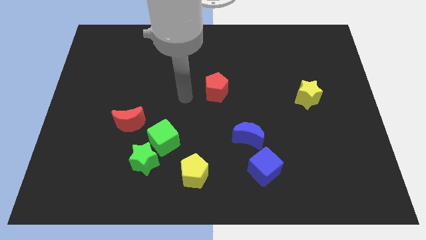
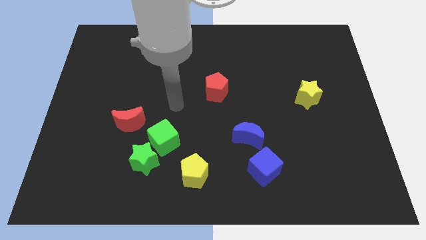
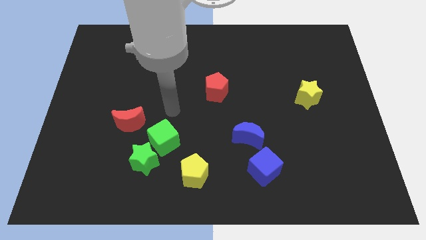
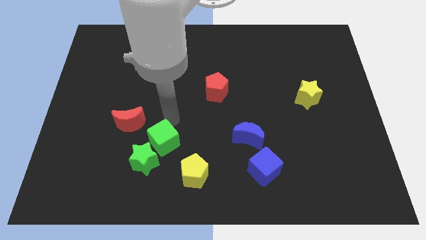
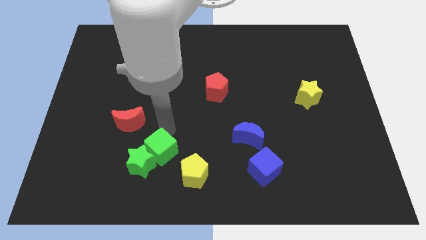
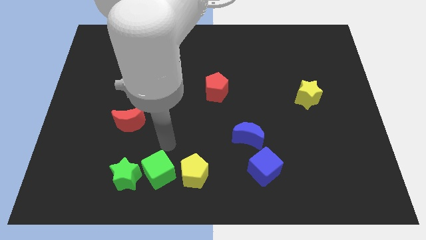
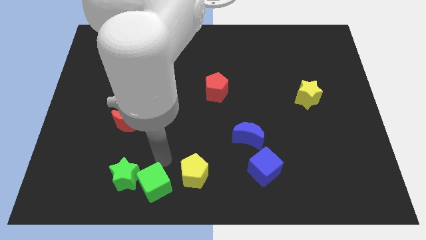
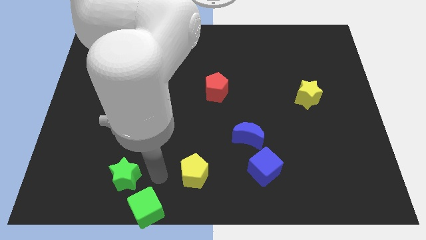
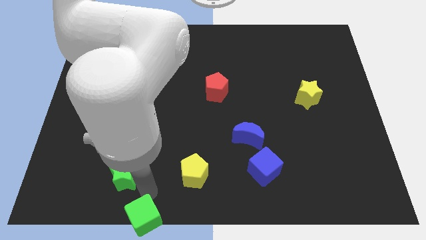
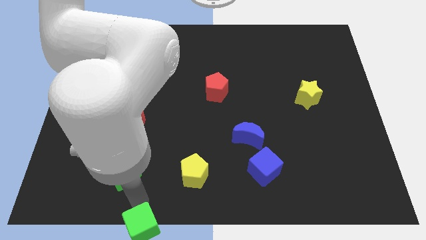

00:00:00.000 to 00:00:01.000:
separate the green star from the green cube

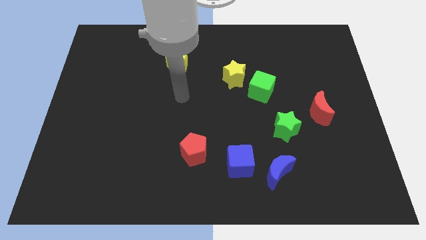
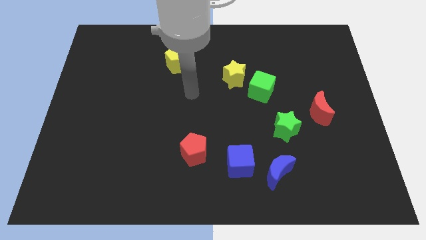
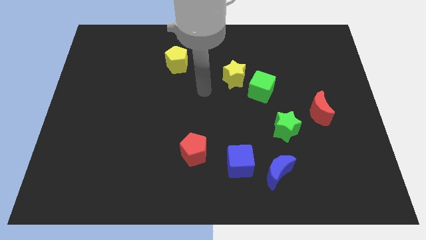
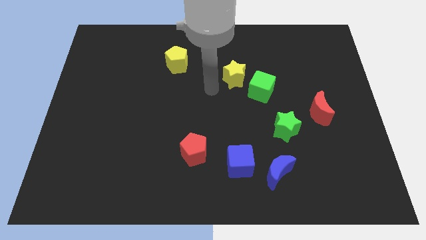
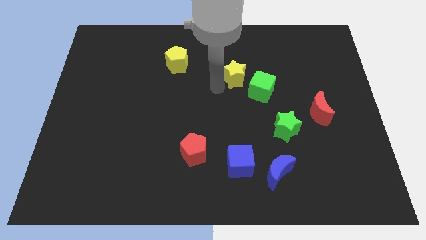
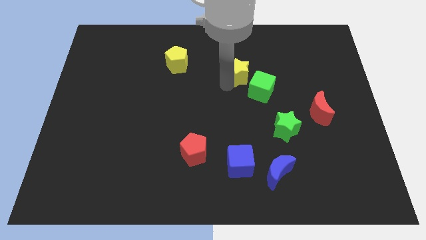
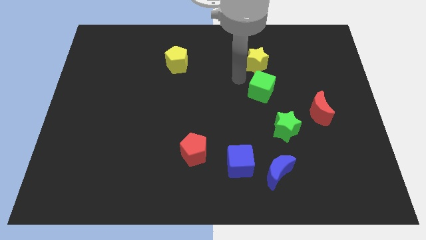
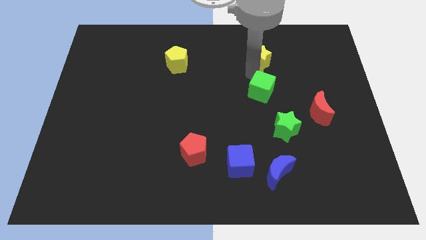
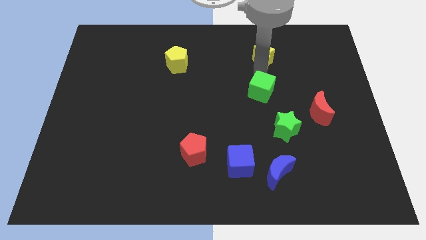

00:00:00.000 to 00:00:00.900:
separate the green cube from the yellow star

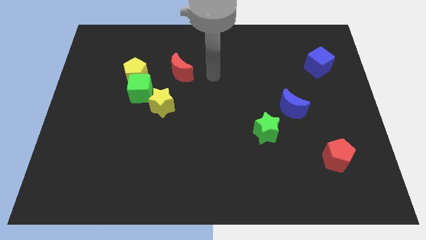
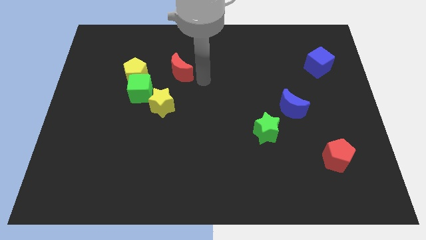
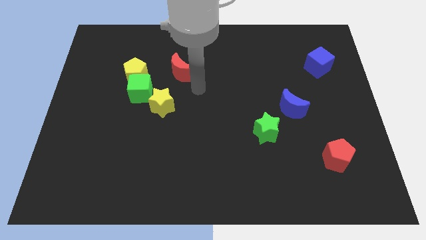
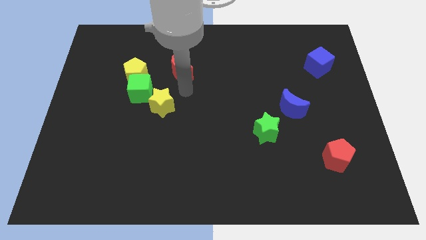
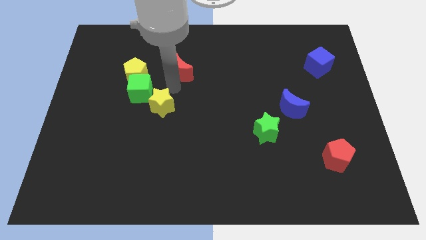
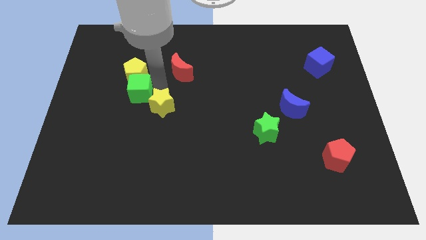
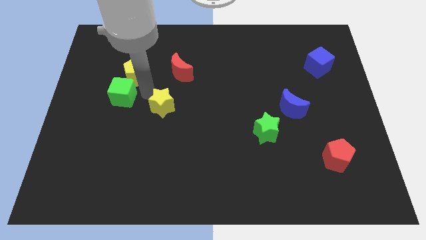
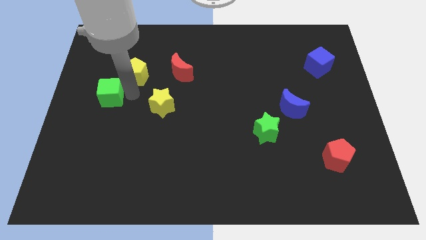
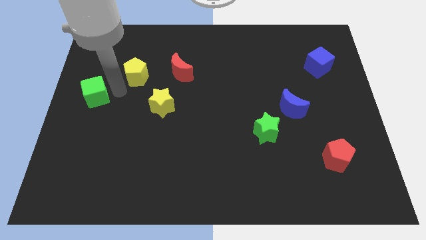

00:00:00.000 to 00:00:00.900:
separate the yellow pentagon from the green cube

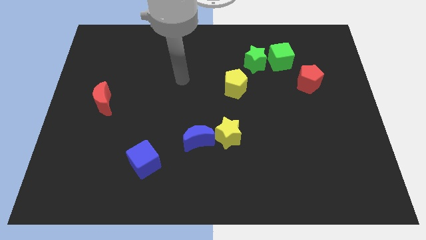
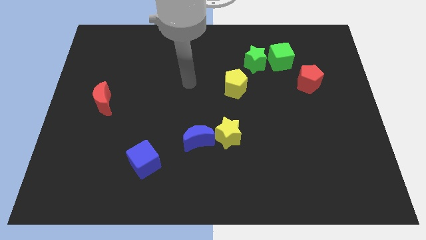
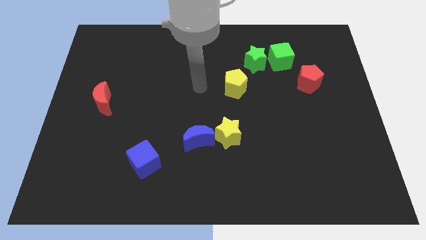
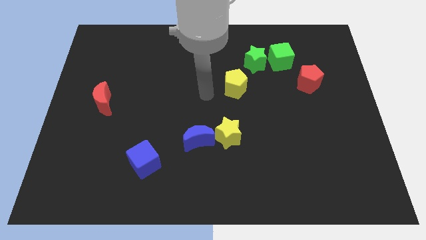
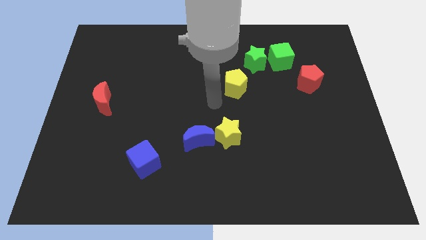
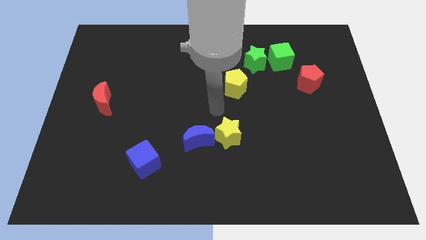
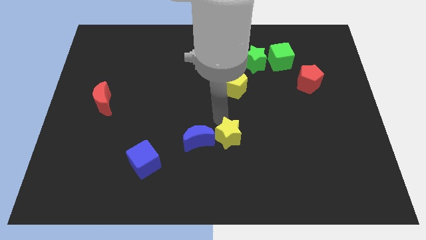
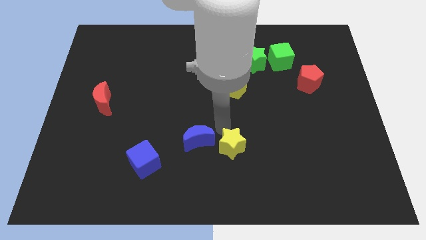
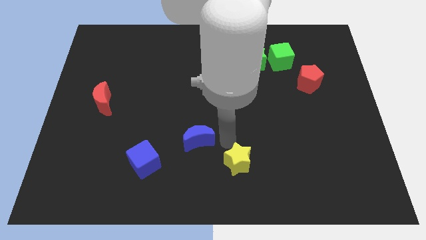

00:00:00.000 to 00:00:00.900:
move the blue moon away from the yellow star

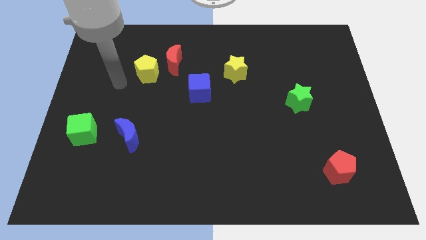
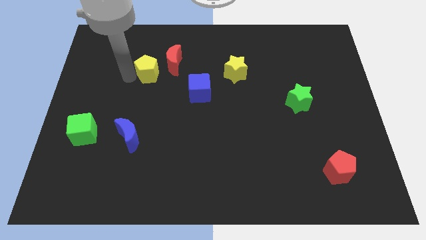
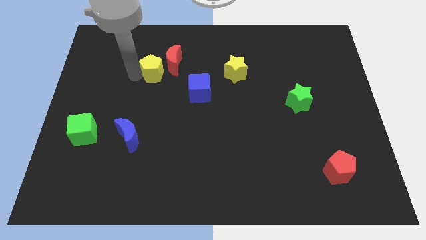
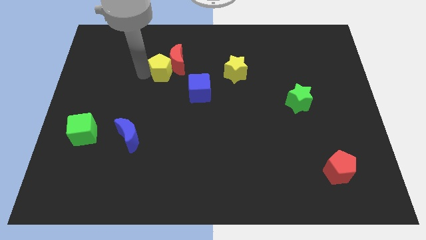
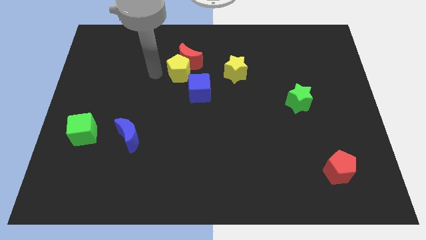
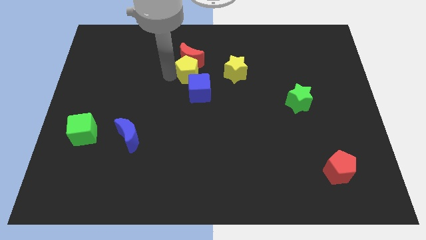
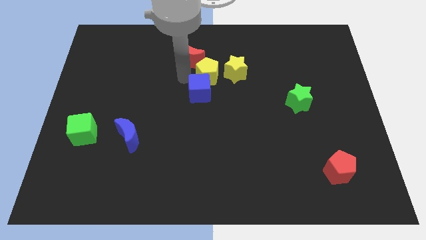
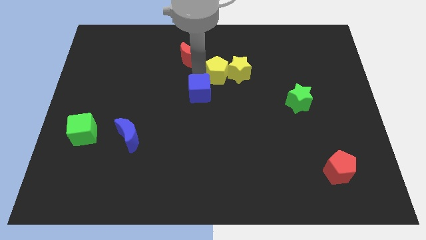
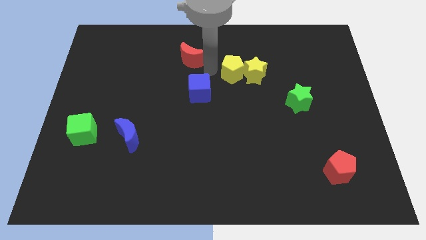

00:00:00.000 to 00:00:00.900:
move the red moon away from the yellow pentagon

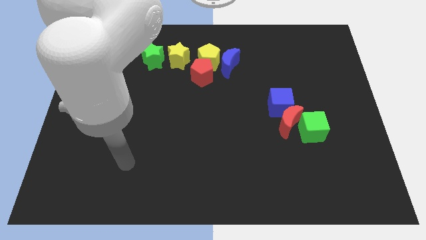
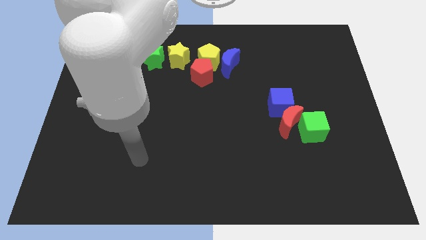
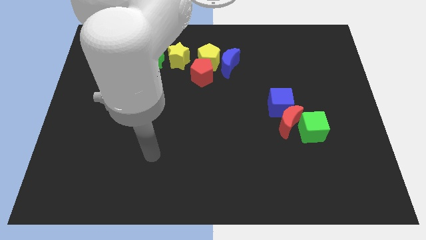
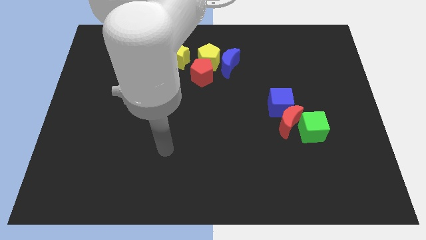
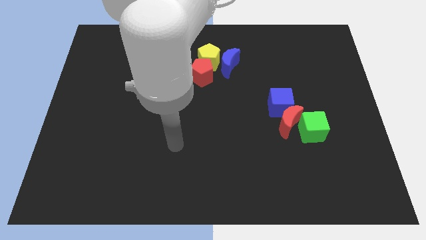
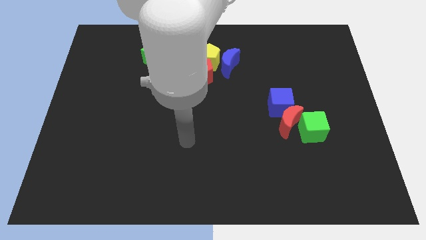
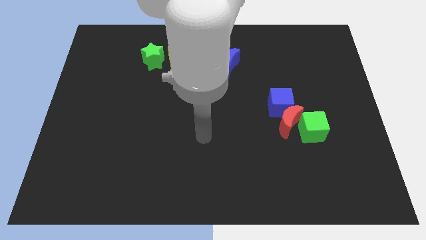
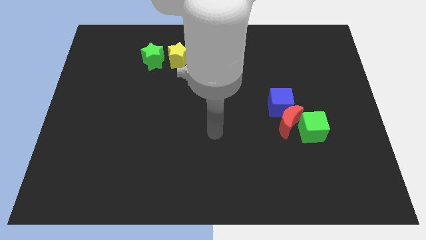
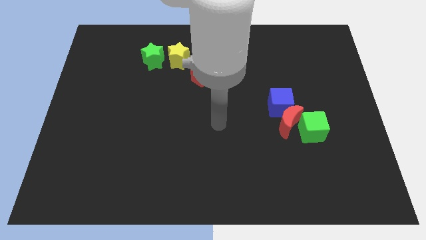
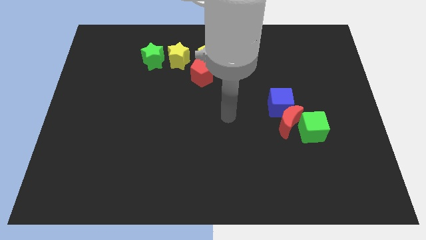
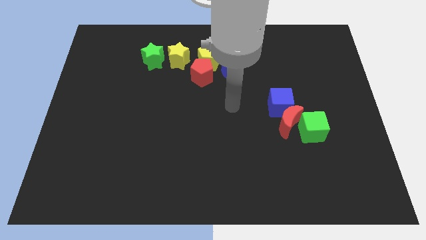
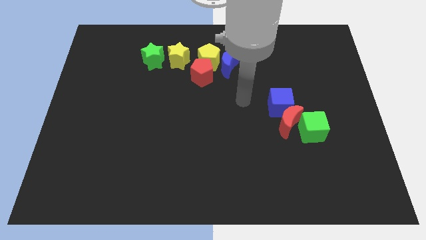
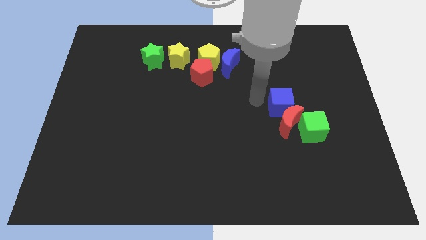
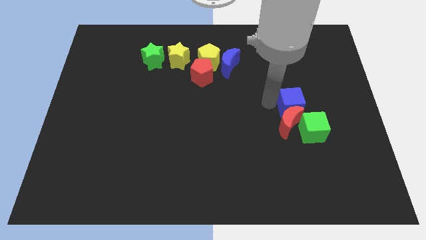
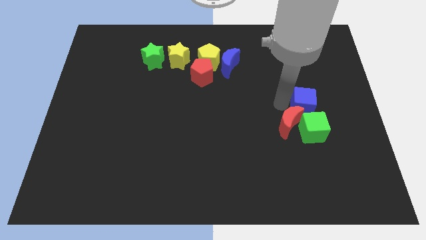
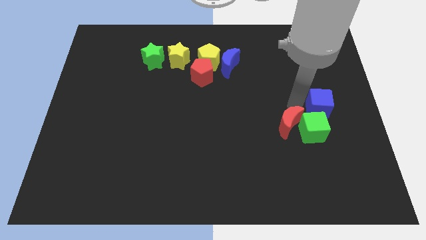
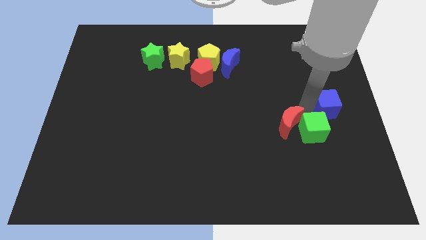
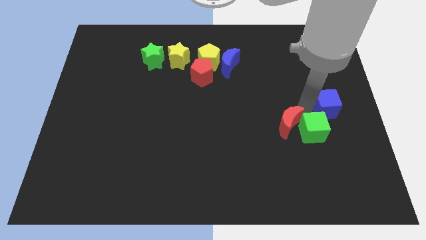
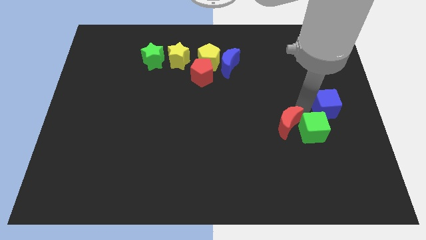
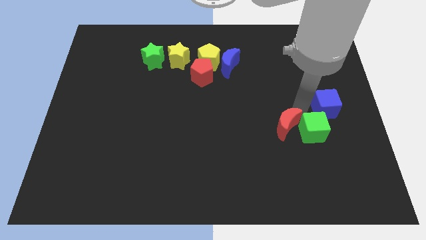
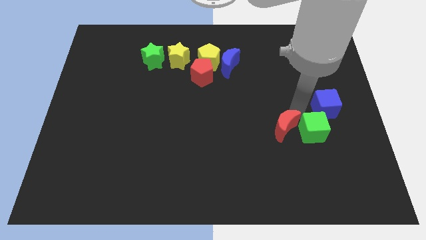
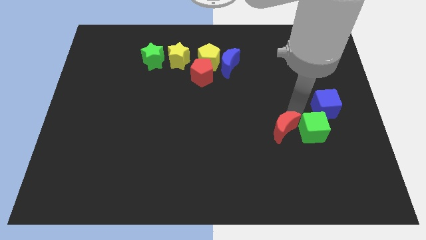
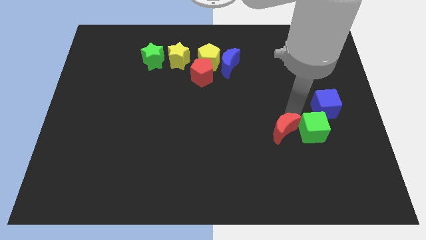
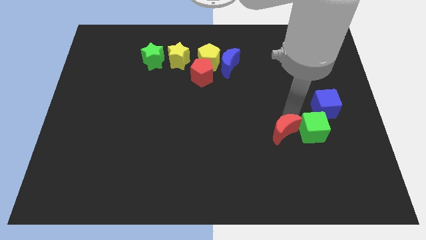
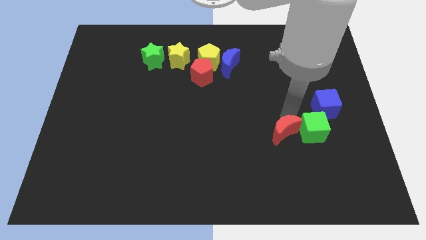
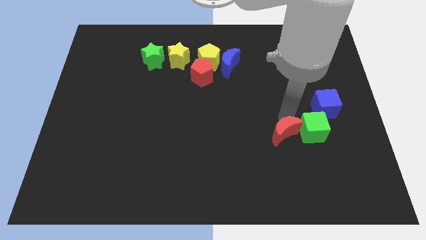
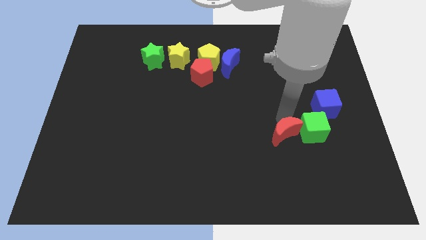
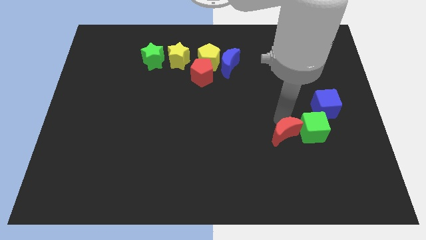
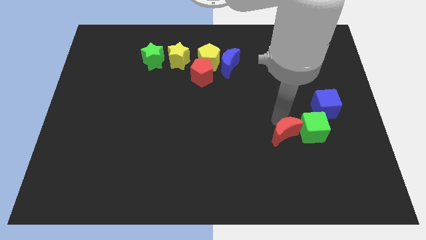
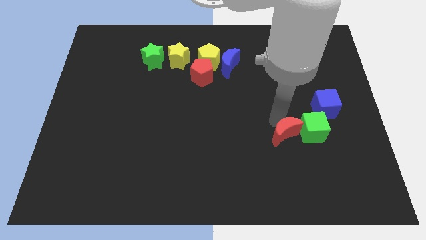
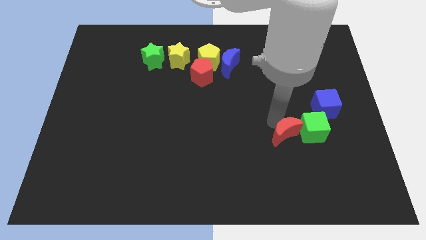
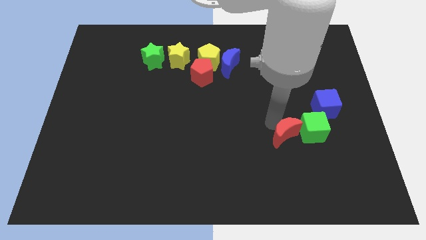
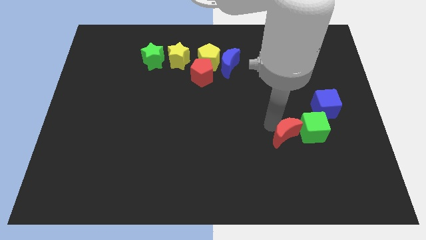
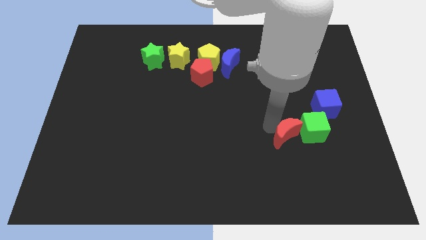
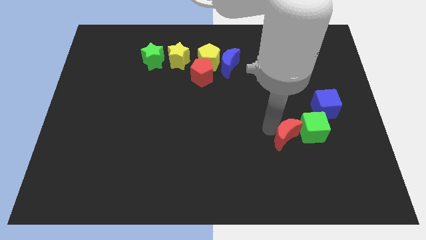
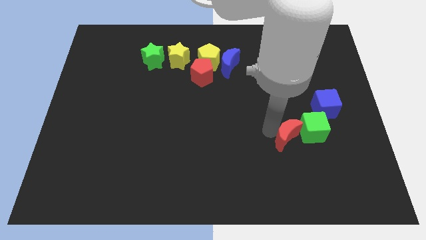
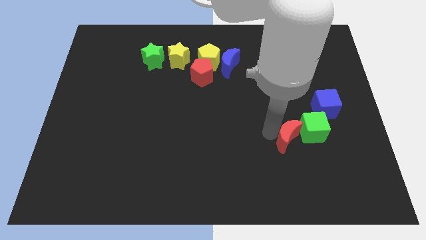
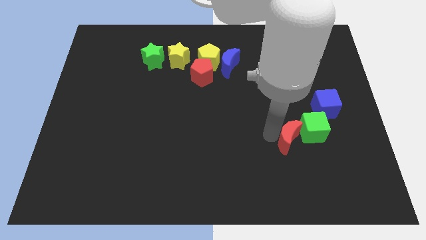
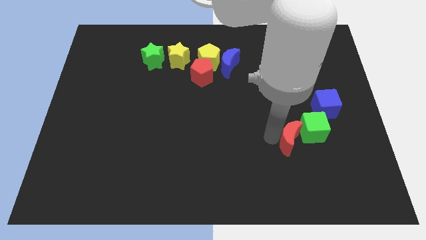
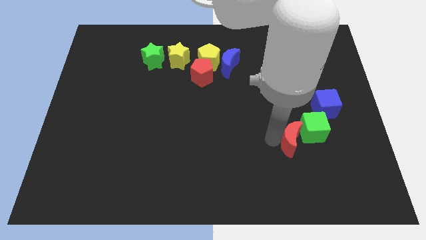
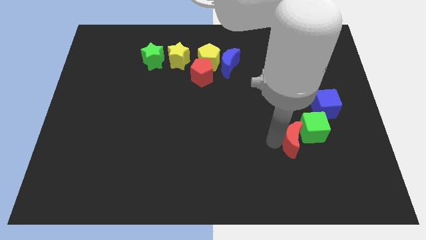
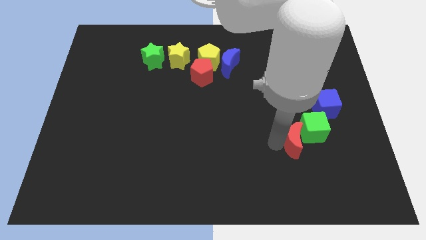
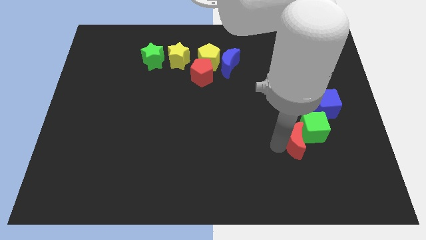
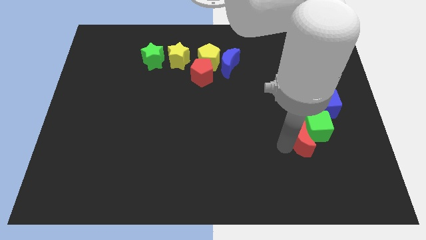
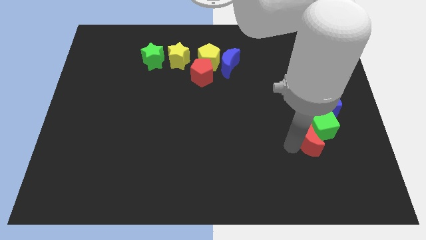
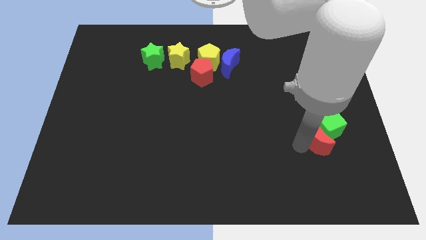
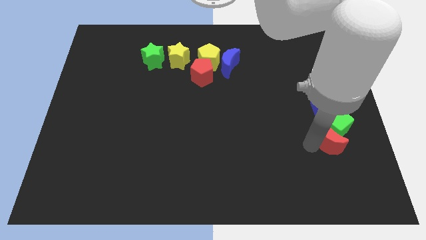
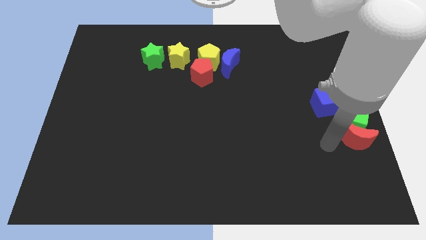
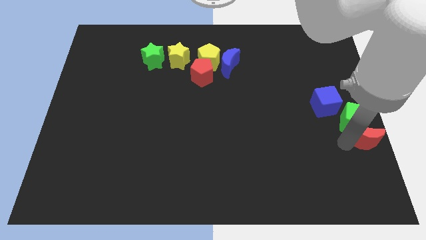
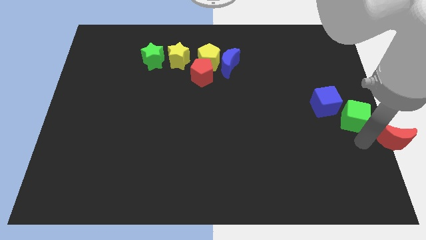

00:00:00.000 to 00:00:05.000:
separate the red moon from the blue cube and green cube
